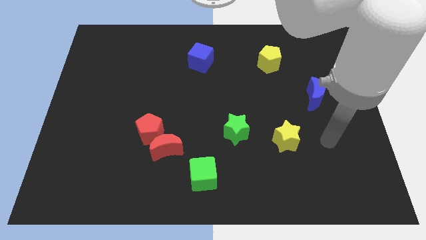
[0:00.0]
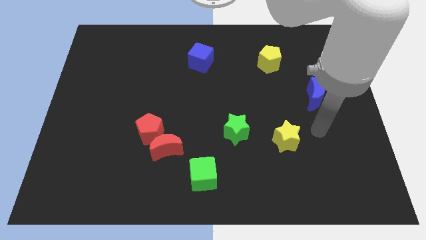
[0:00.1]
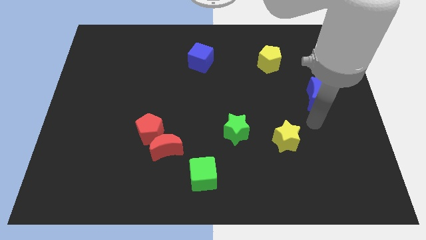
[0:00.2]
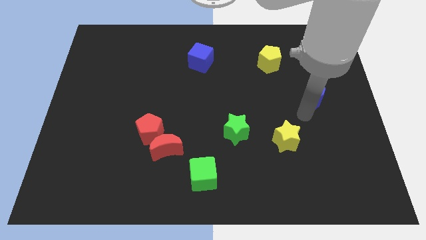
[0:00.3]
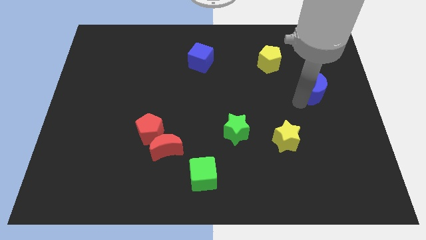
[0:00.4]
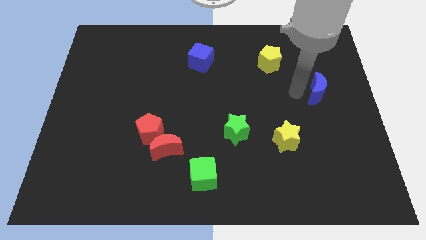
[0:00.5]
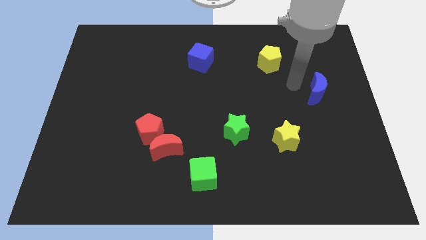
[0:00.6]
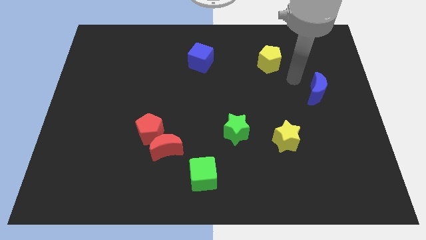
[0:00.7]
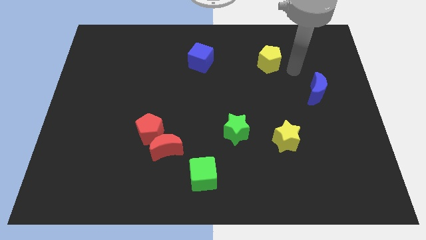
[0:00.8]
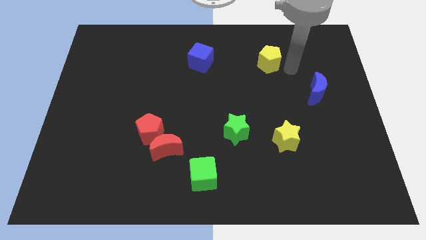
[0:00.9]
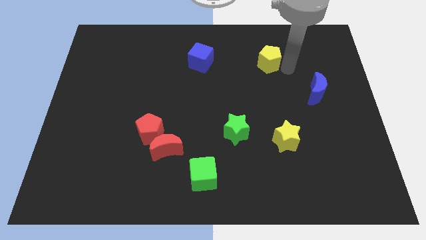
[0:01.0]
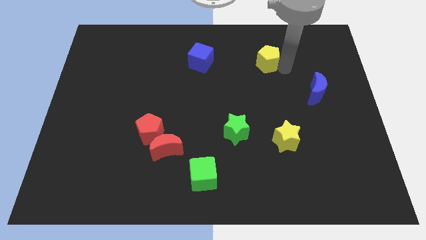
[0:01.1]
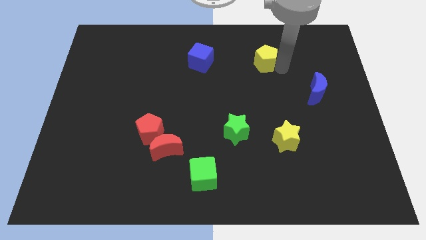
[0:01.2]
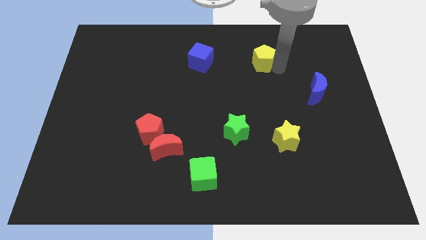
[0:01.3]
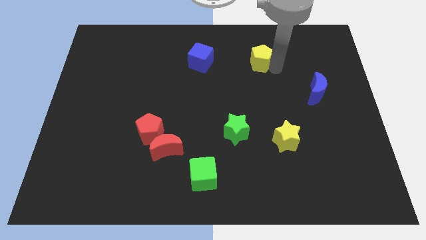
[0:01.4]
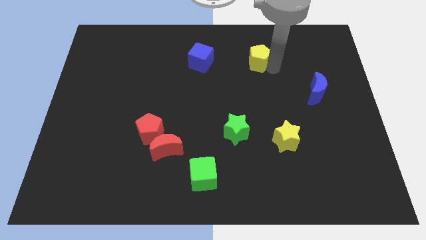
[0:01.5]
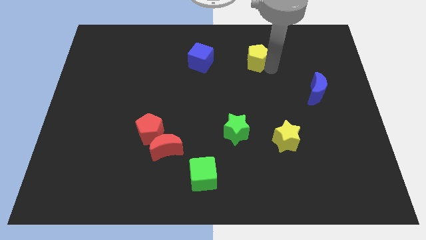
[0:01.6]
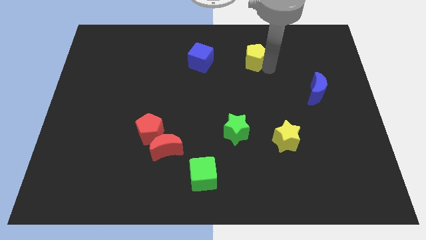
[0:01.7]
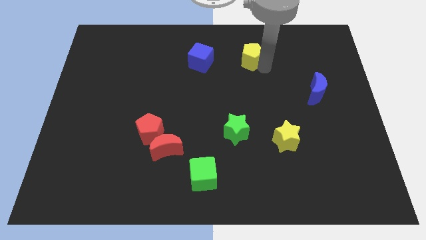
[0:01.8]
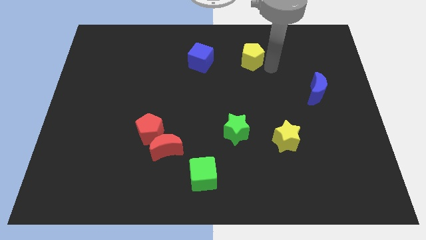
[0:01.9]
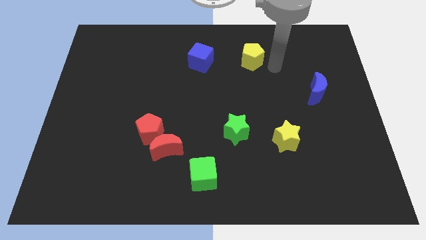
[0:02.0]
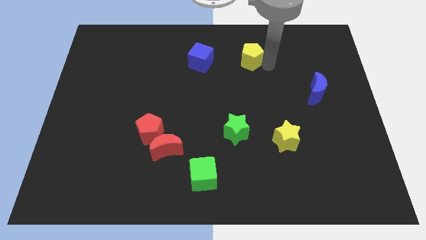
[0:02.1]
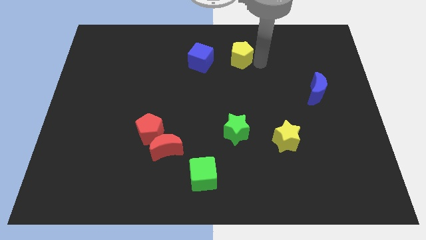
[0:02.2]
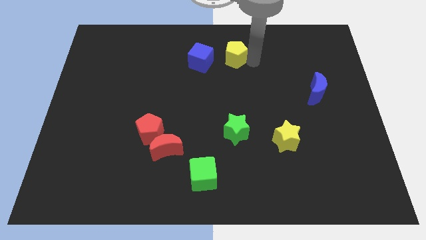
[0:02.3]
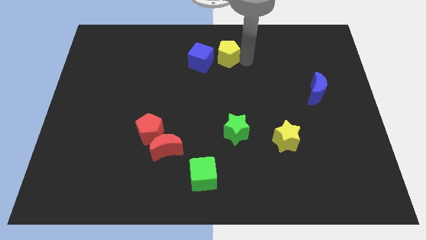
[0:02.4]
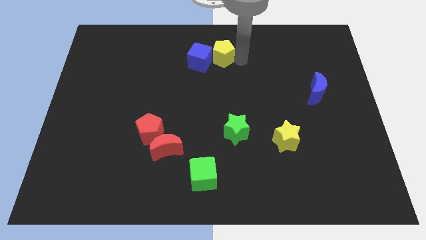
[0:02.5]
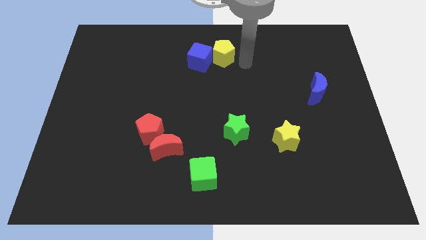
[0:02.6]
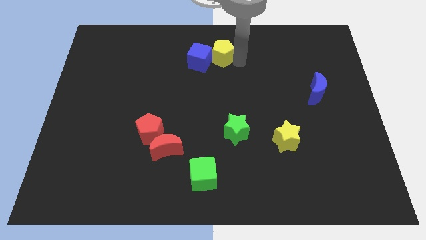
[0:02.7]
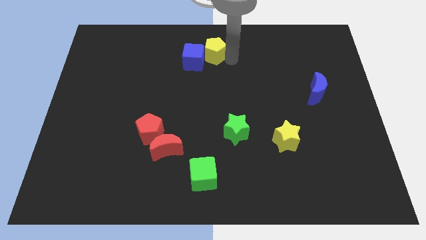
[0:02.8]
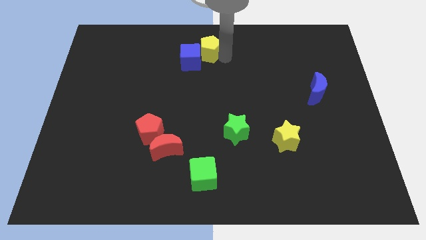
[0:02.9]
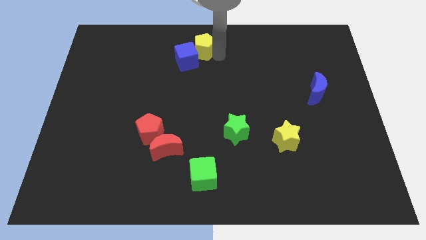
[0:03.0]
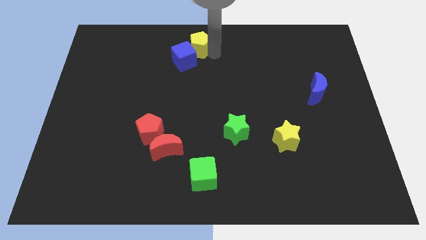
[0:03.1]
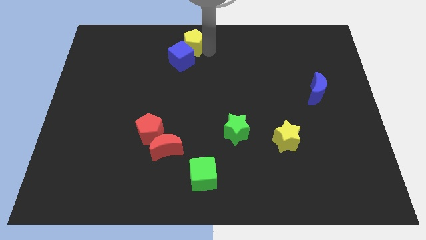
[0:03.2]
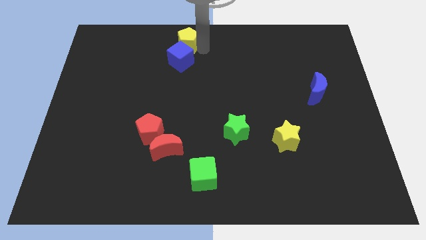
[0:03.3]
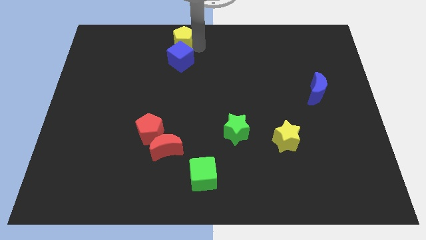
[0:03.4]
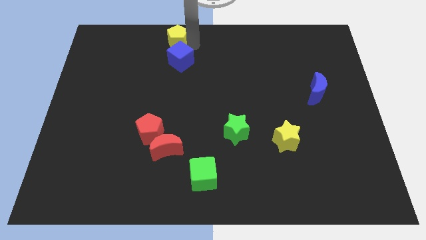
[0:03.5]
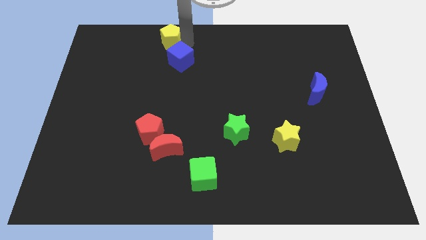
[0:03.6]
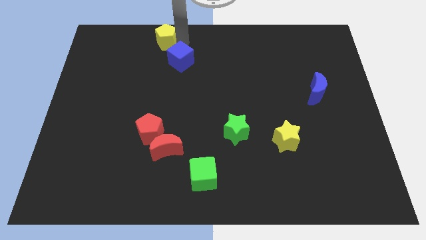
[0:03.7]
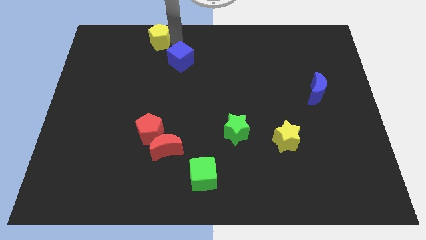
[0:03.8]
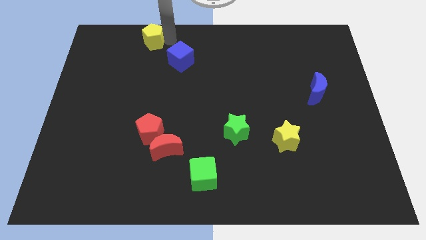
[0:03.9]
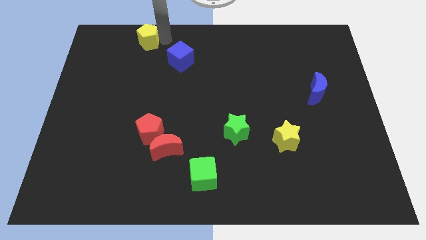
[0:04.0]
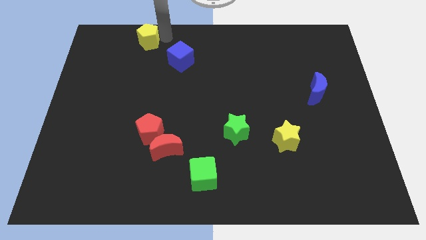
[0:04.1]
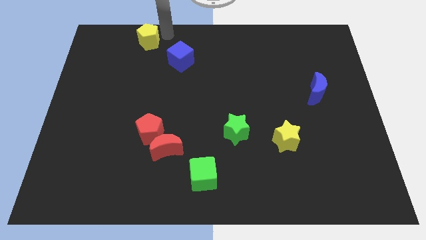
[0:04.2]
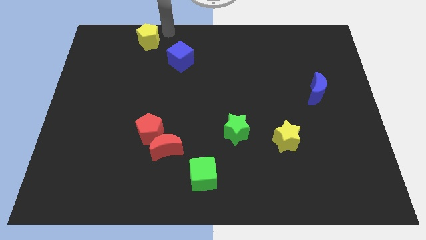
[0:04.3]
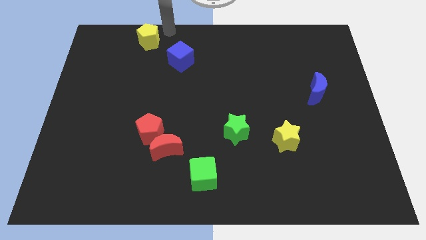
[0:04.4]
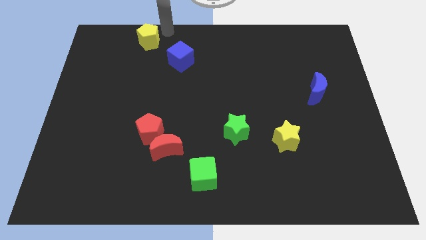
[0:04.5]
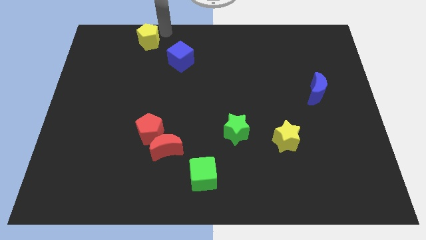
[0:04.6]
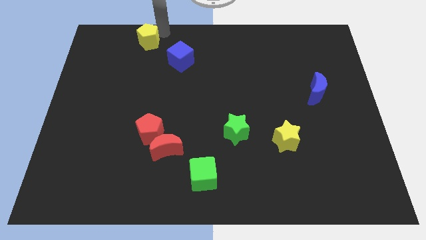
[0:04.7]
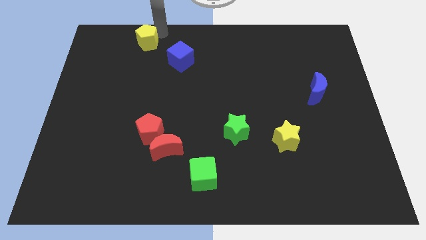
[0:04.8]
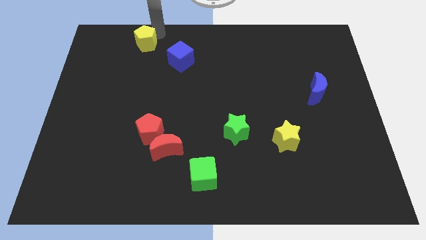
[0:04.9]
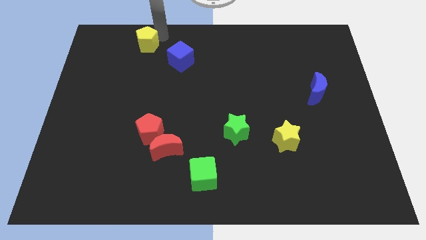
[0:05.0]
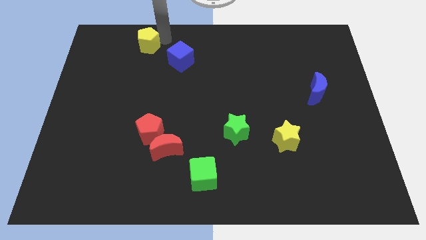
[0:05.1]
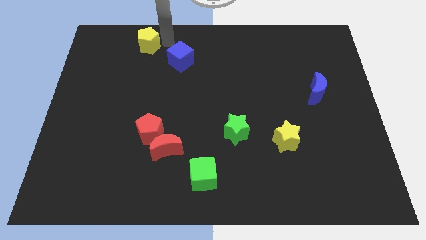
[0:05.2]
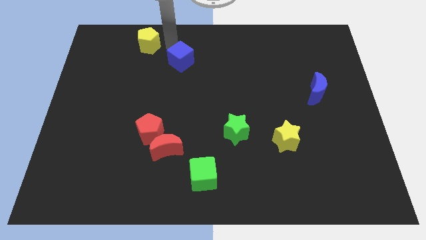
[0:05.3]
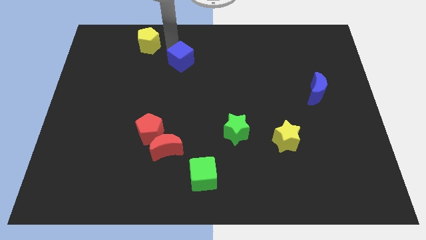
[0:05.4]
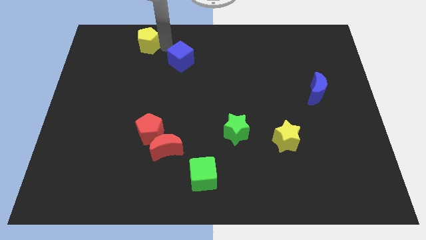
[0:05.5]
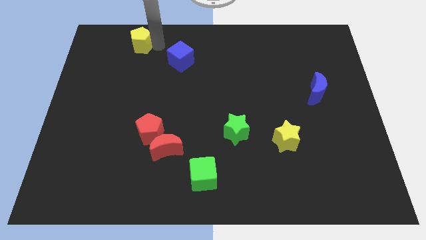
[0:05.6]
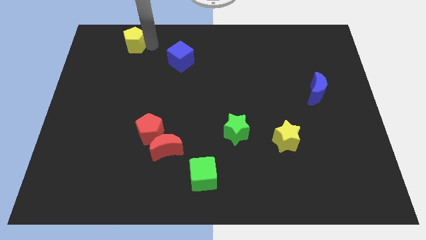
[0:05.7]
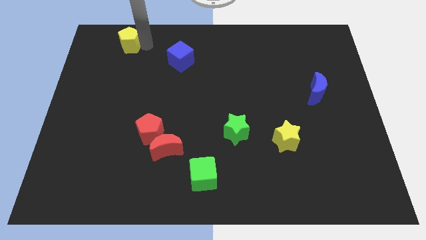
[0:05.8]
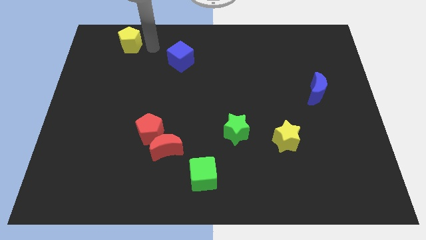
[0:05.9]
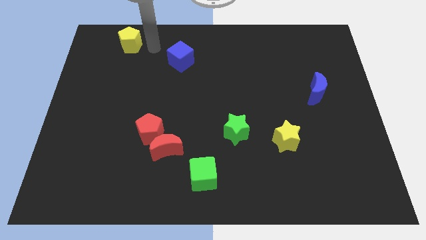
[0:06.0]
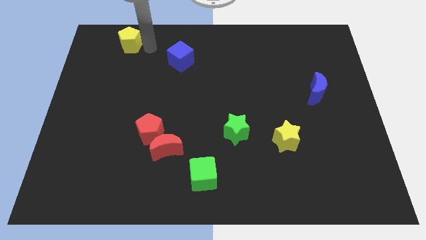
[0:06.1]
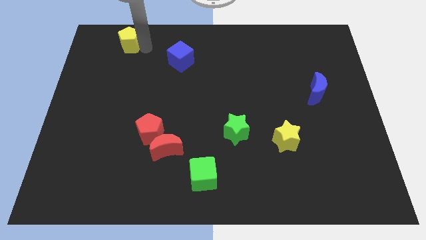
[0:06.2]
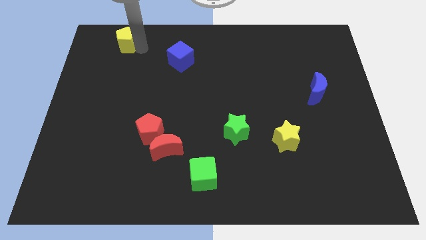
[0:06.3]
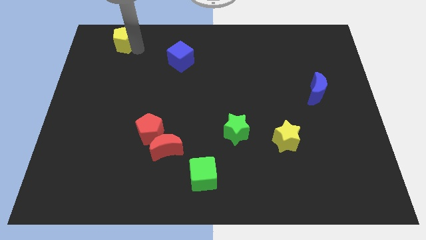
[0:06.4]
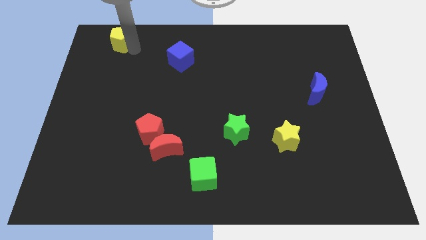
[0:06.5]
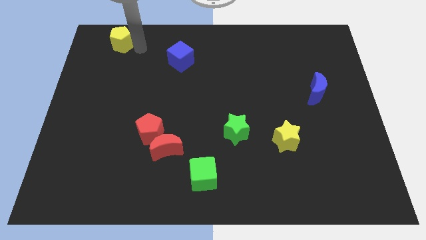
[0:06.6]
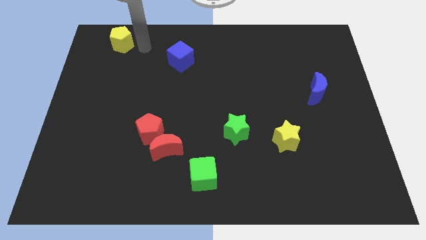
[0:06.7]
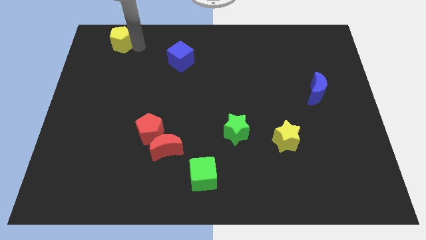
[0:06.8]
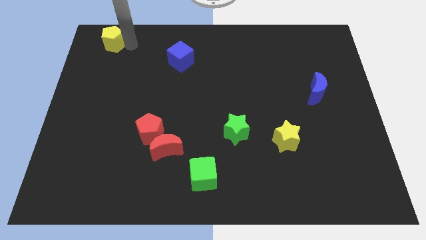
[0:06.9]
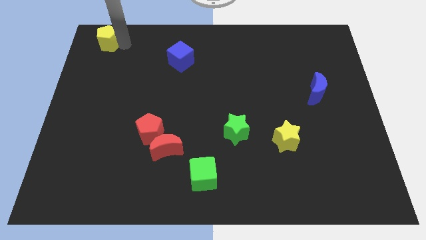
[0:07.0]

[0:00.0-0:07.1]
put the yellow pentagon to the upper left corner
